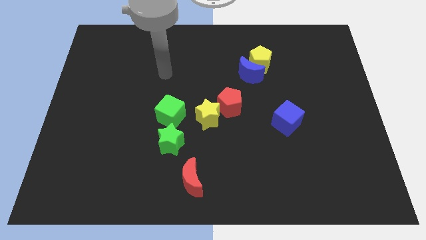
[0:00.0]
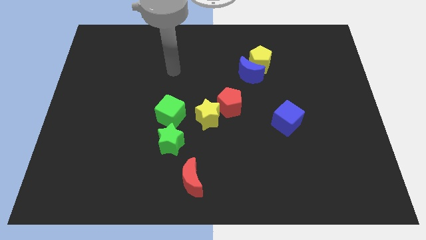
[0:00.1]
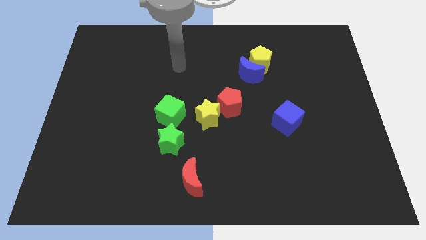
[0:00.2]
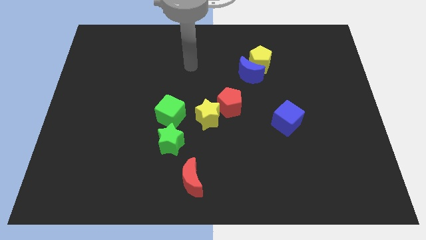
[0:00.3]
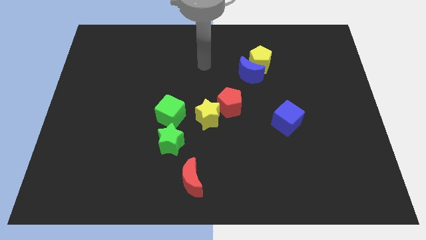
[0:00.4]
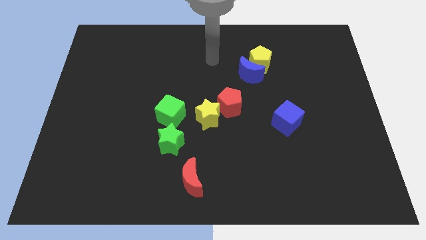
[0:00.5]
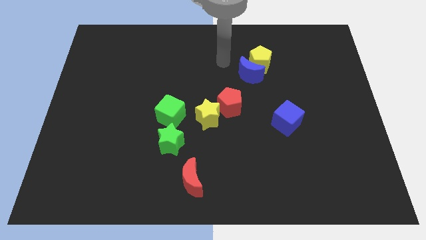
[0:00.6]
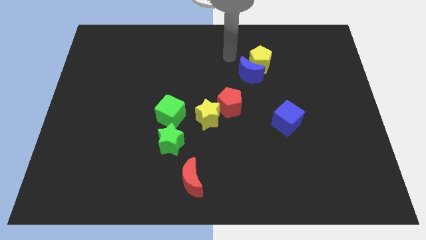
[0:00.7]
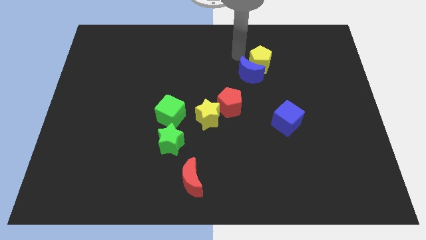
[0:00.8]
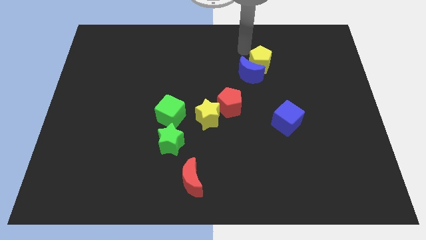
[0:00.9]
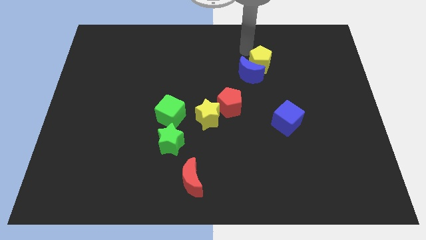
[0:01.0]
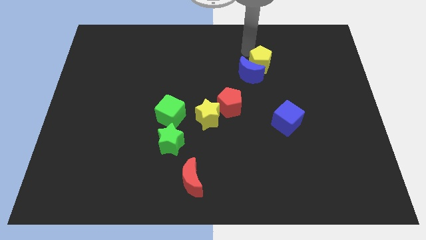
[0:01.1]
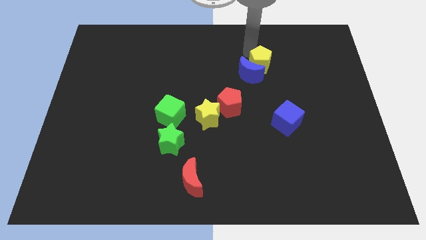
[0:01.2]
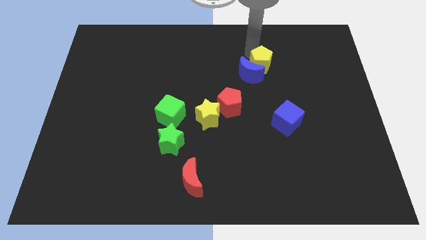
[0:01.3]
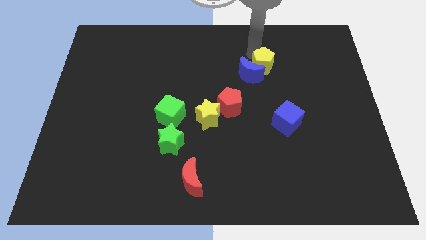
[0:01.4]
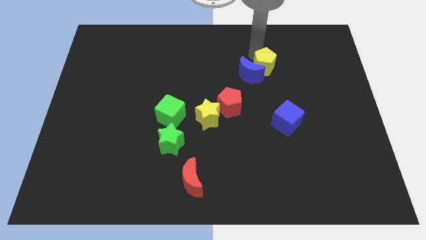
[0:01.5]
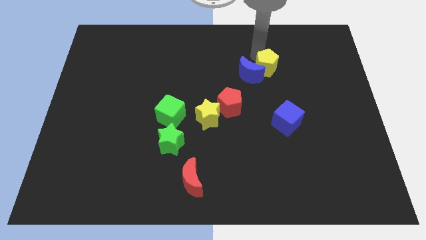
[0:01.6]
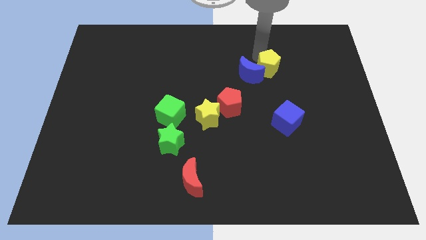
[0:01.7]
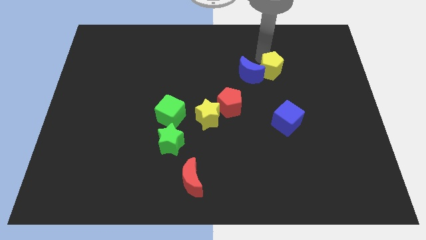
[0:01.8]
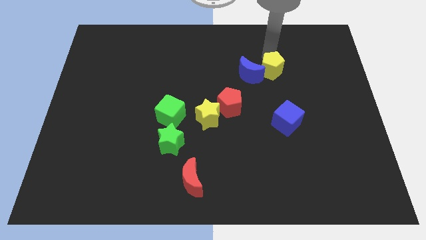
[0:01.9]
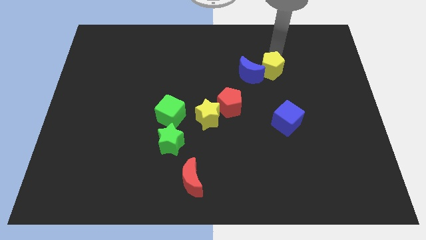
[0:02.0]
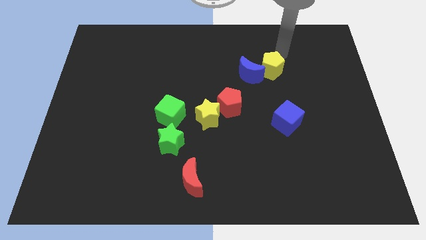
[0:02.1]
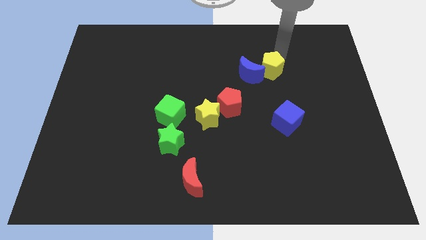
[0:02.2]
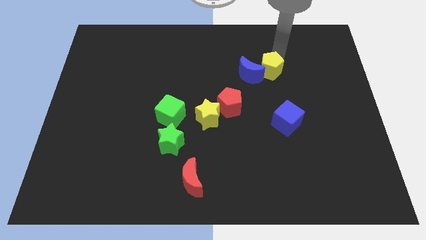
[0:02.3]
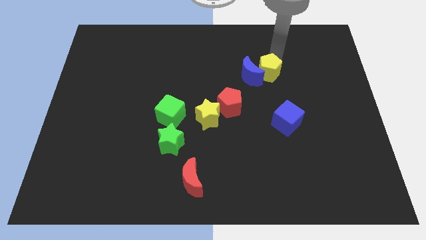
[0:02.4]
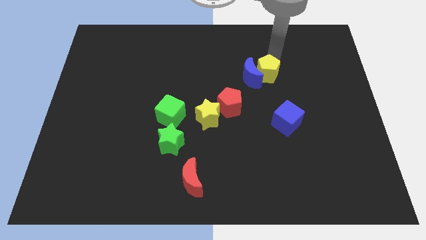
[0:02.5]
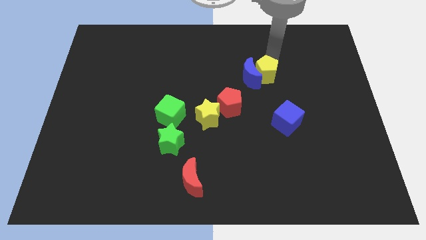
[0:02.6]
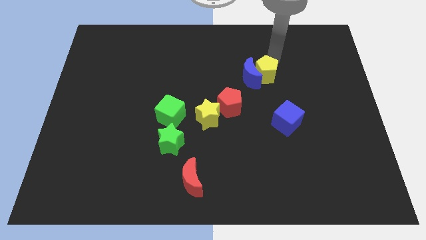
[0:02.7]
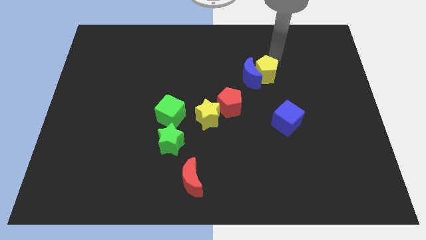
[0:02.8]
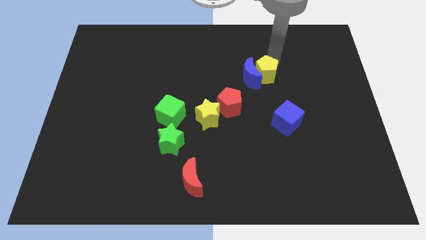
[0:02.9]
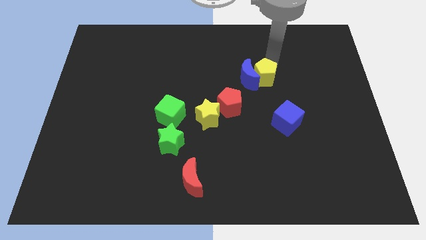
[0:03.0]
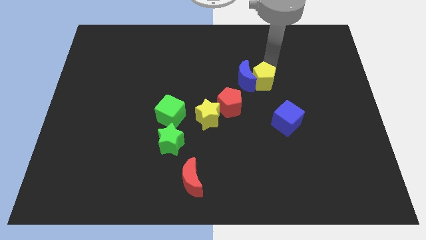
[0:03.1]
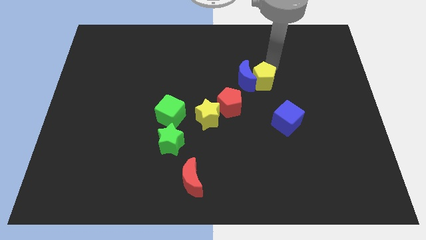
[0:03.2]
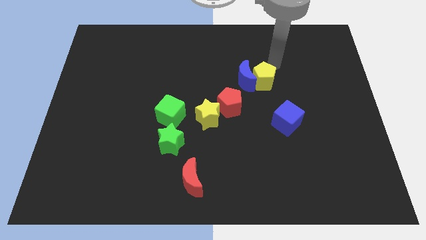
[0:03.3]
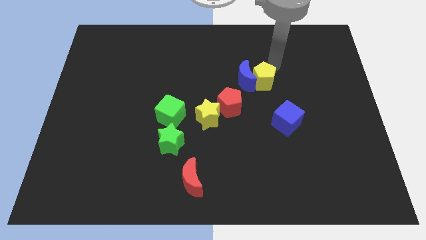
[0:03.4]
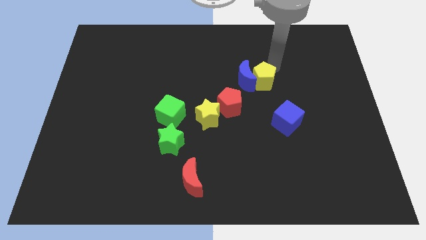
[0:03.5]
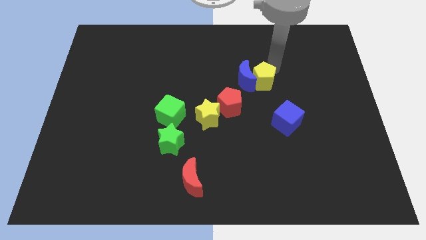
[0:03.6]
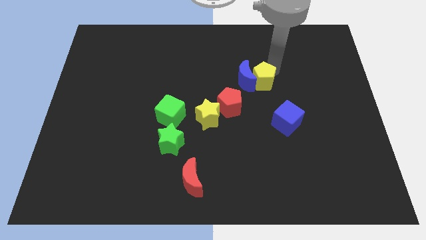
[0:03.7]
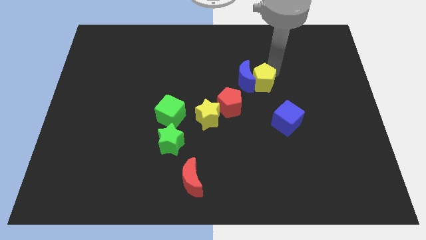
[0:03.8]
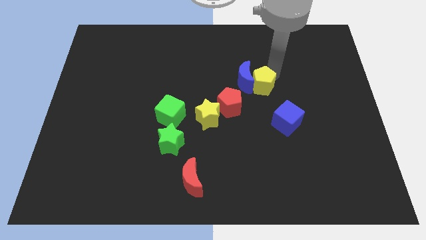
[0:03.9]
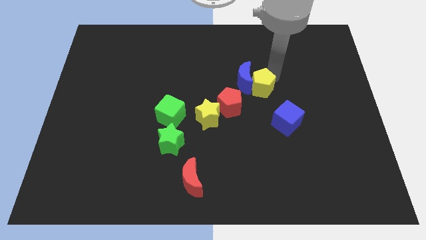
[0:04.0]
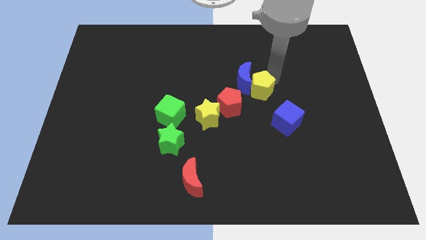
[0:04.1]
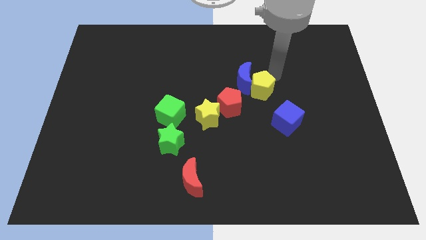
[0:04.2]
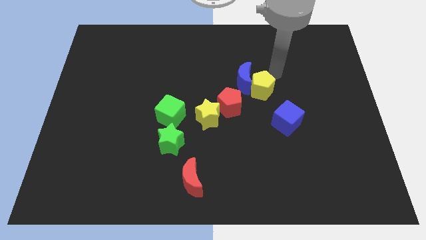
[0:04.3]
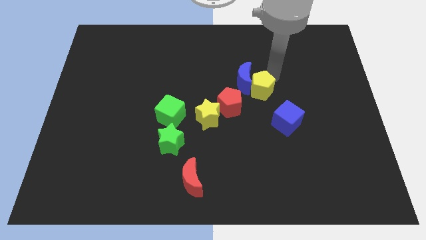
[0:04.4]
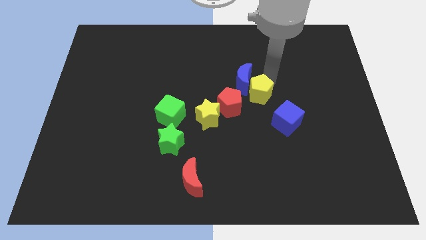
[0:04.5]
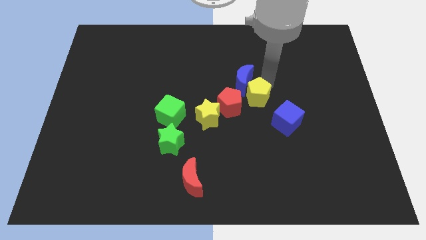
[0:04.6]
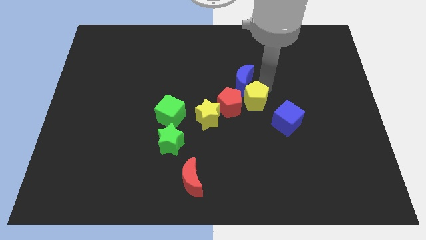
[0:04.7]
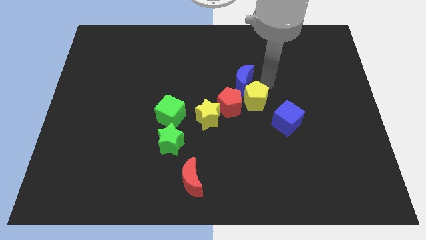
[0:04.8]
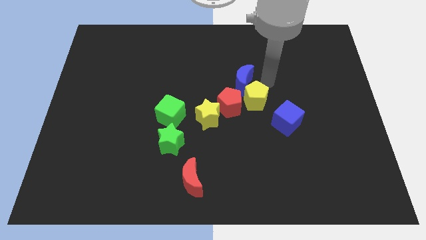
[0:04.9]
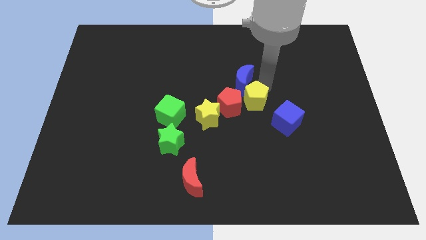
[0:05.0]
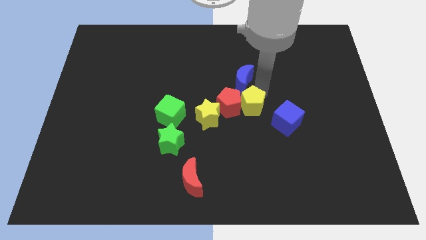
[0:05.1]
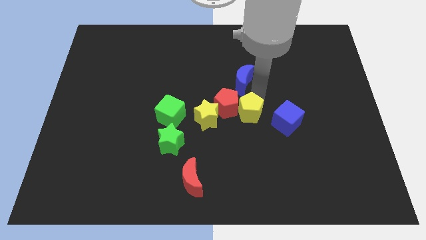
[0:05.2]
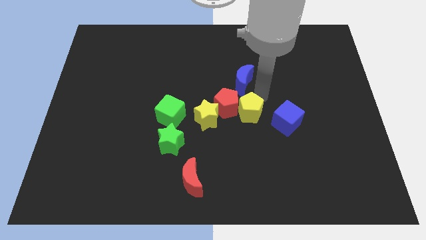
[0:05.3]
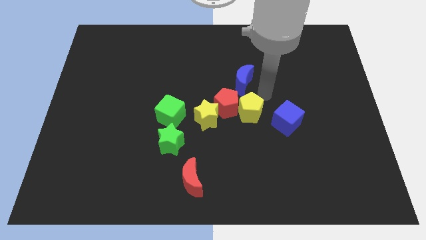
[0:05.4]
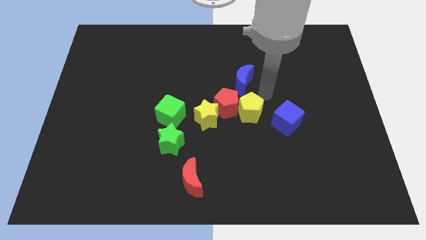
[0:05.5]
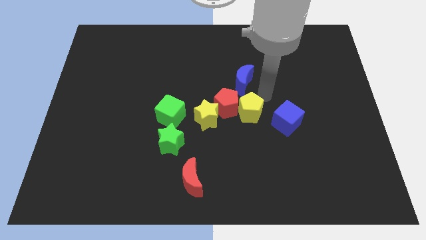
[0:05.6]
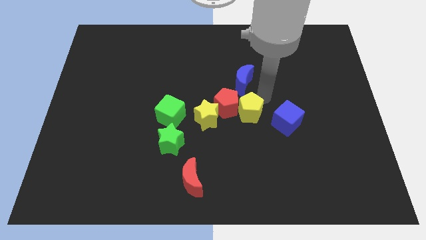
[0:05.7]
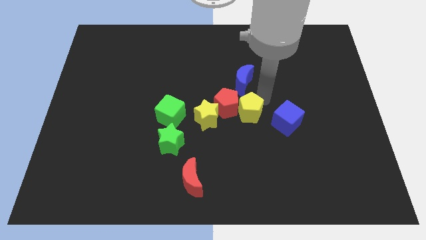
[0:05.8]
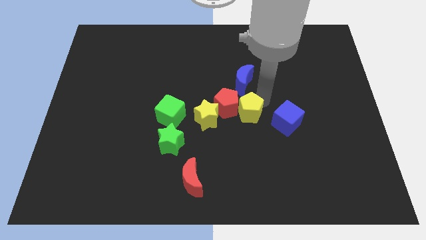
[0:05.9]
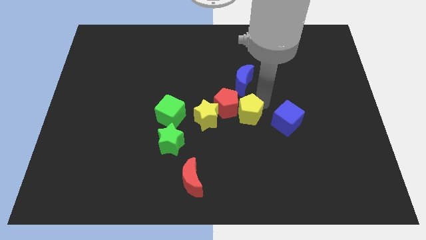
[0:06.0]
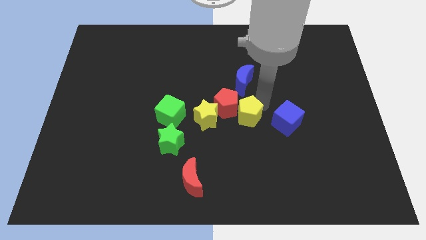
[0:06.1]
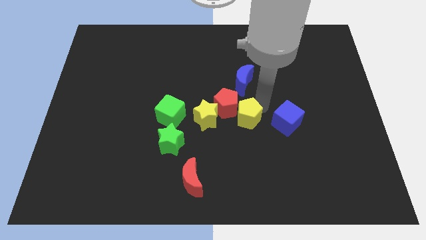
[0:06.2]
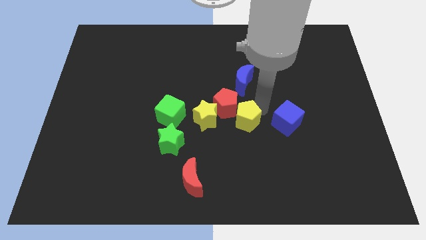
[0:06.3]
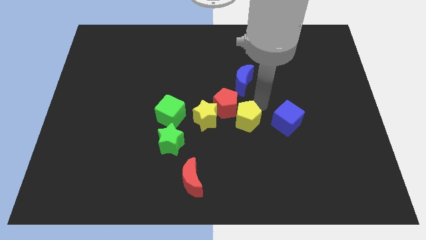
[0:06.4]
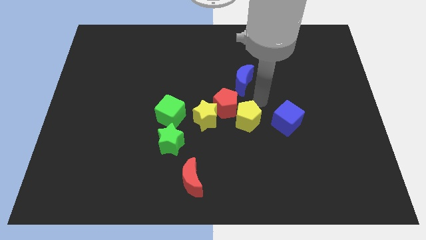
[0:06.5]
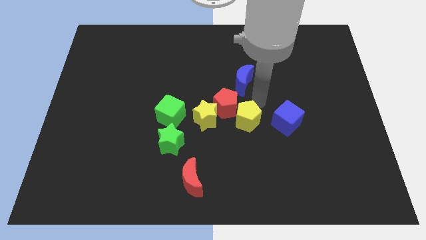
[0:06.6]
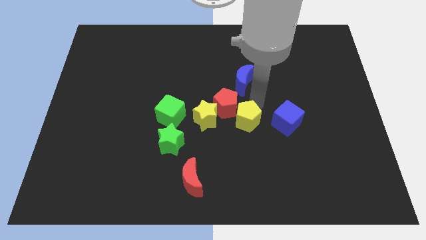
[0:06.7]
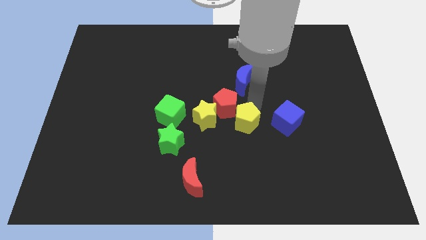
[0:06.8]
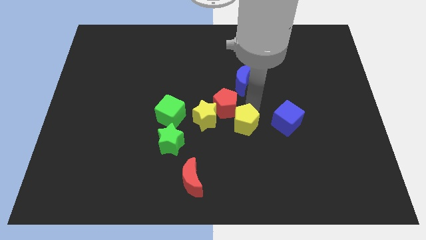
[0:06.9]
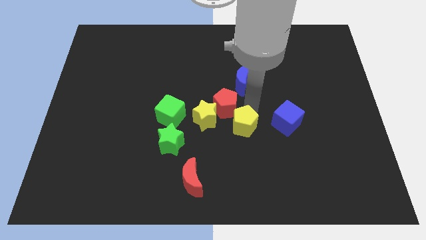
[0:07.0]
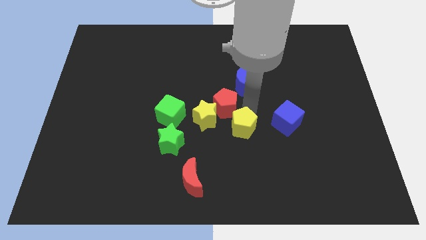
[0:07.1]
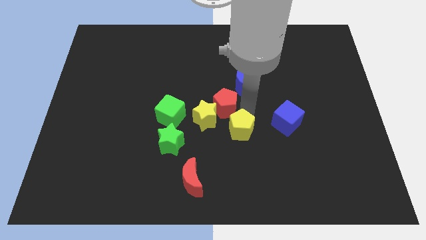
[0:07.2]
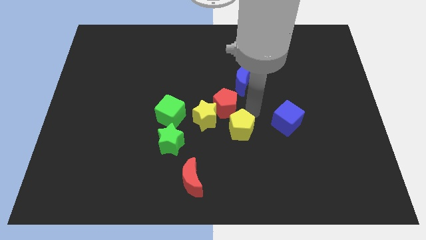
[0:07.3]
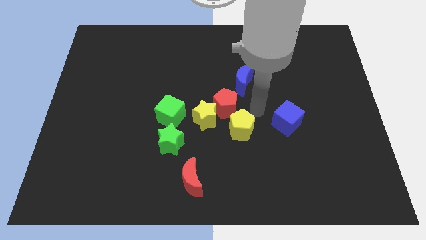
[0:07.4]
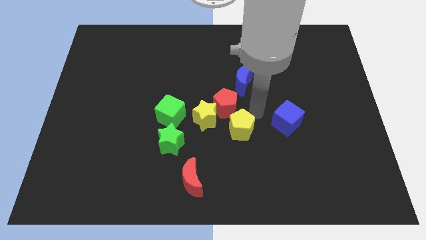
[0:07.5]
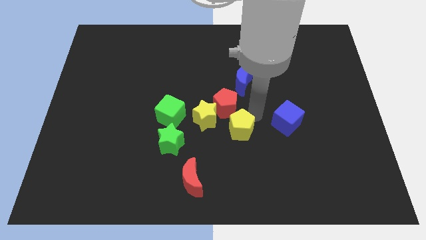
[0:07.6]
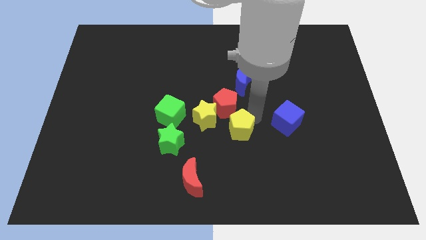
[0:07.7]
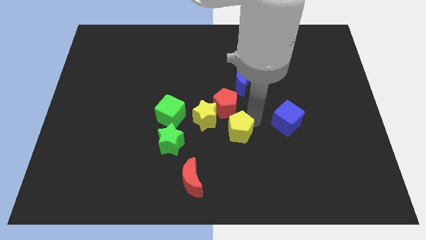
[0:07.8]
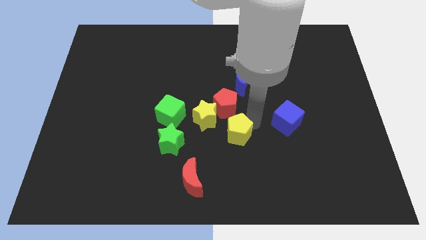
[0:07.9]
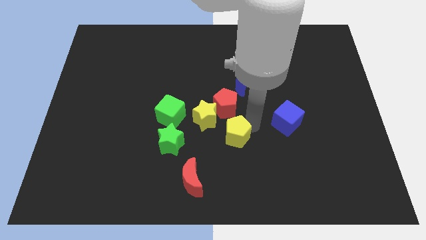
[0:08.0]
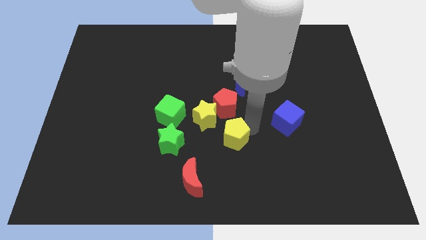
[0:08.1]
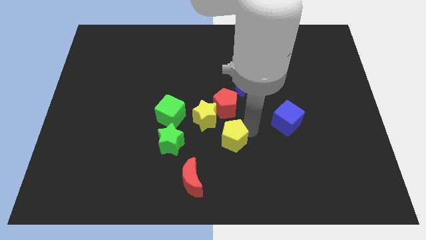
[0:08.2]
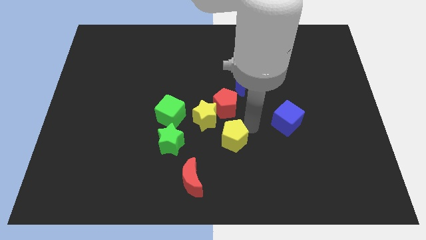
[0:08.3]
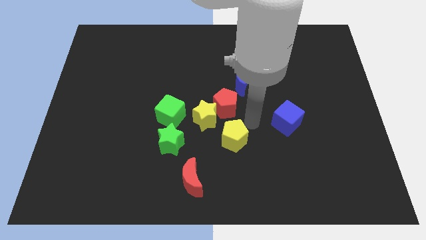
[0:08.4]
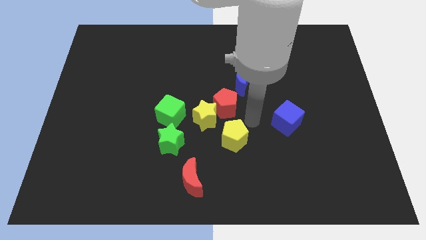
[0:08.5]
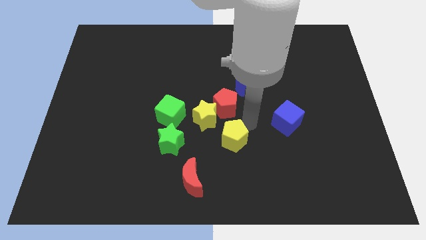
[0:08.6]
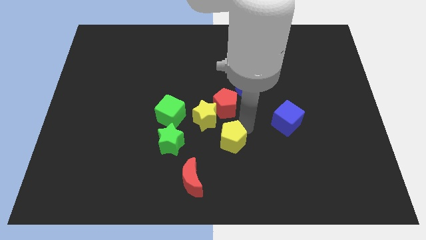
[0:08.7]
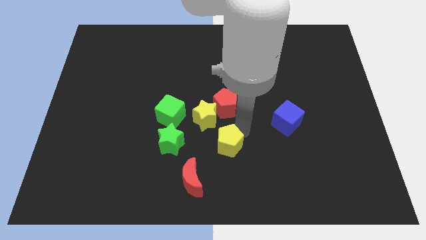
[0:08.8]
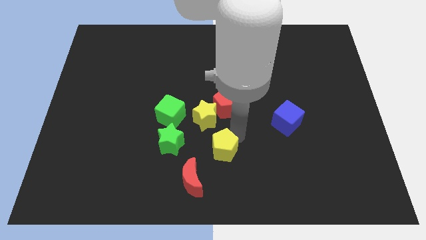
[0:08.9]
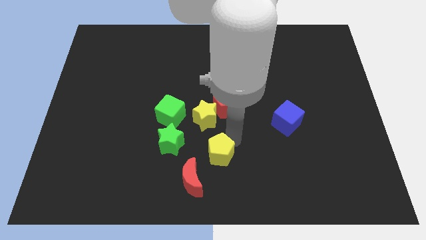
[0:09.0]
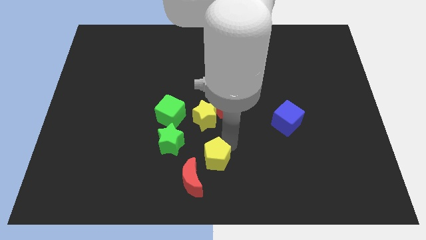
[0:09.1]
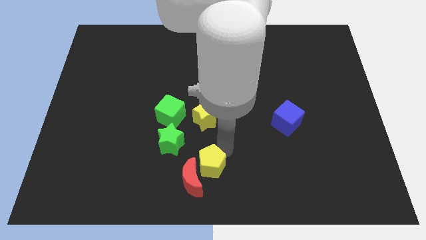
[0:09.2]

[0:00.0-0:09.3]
push the yellow pentagon towards the red moon
